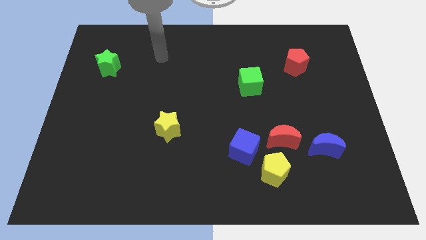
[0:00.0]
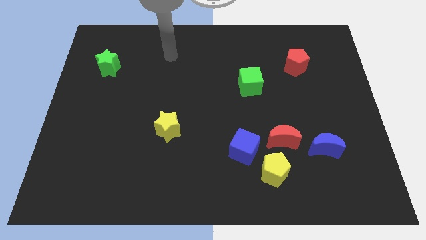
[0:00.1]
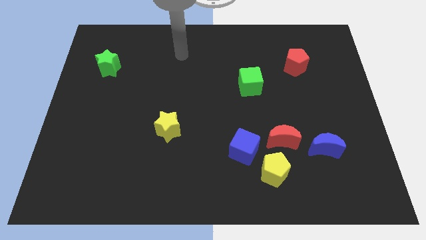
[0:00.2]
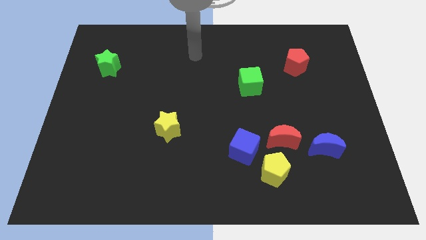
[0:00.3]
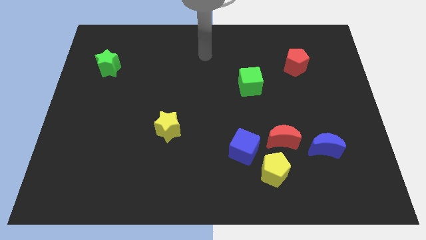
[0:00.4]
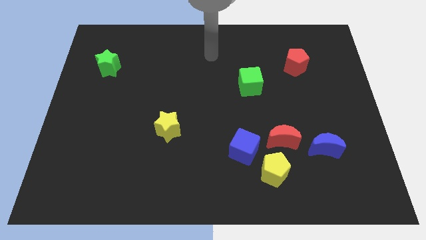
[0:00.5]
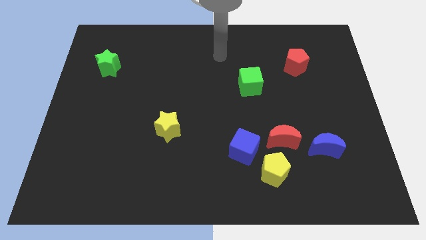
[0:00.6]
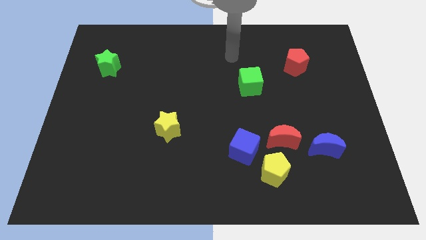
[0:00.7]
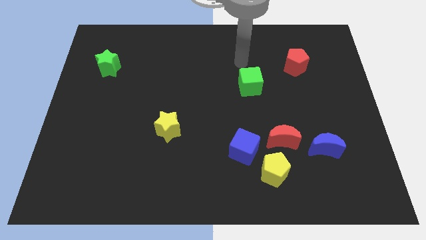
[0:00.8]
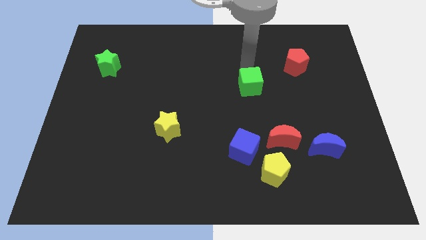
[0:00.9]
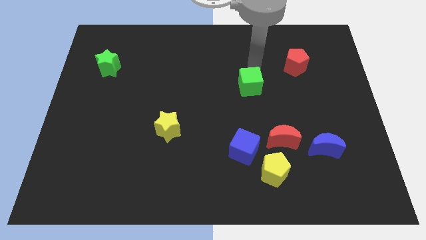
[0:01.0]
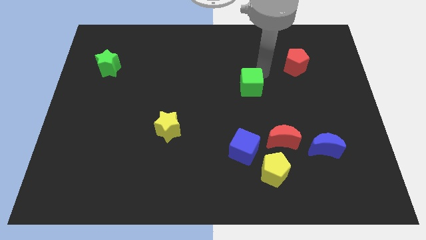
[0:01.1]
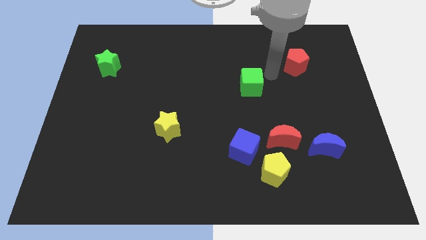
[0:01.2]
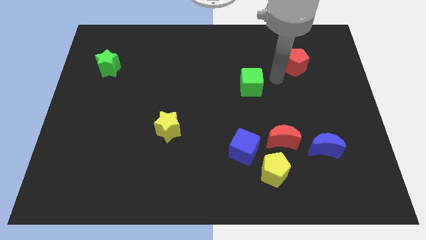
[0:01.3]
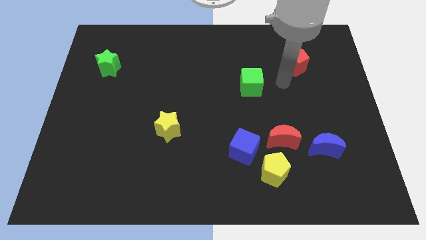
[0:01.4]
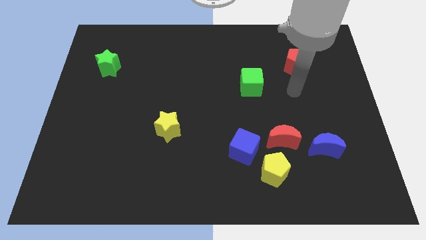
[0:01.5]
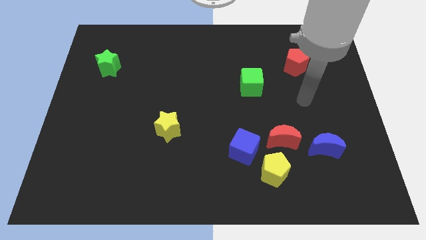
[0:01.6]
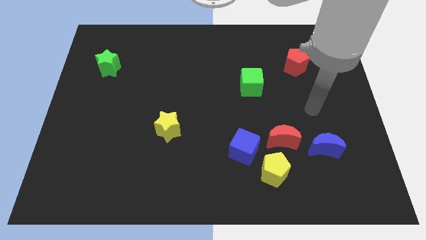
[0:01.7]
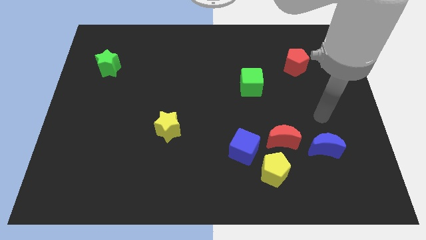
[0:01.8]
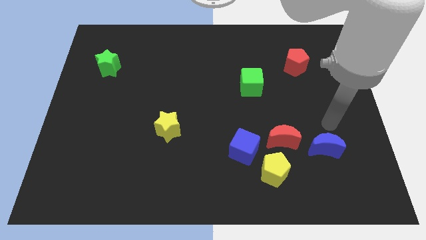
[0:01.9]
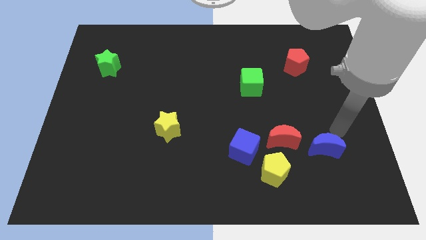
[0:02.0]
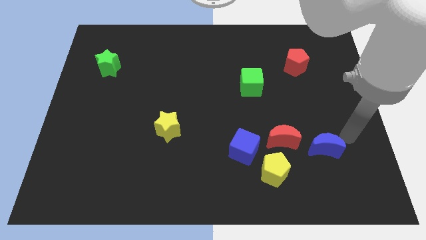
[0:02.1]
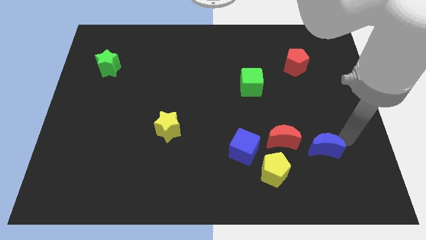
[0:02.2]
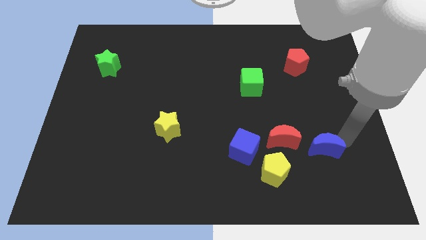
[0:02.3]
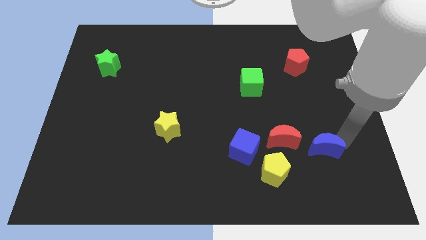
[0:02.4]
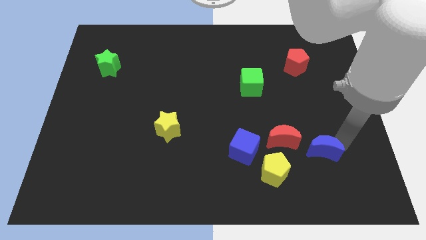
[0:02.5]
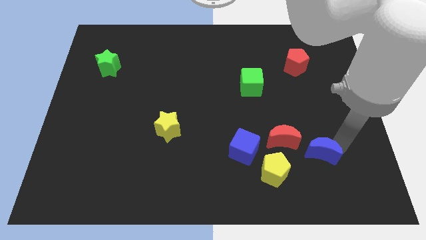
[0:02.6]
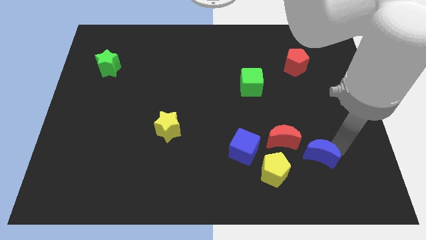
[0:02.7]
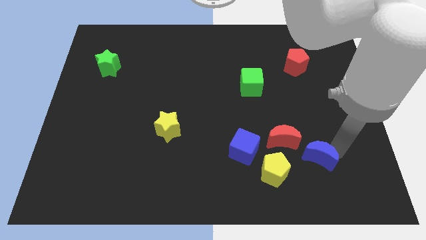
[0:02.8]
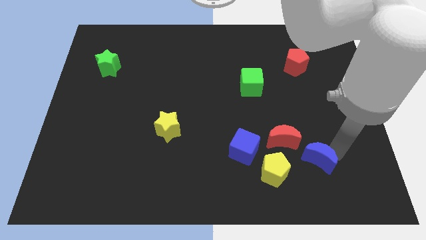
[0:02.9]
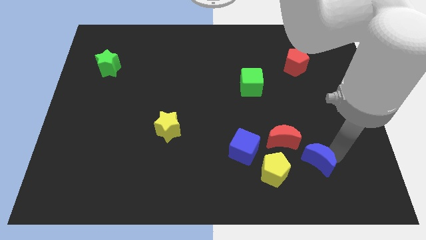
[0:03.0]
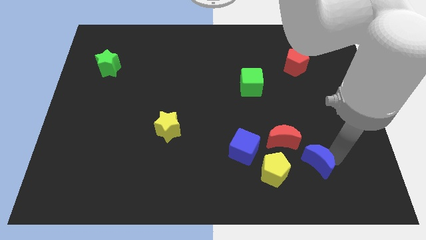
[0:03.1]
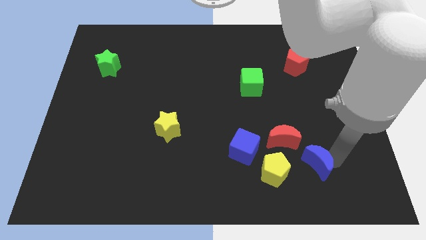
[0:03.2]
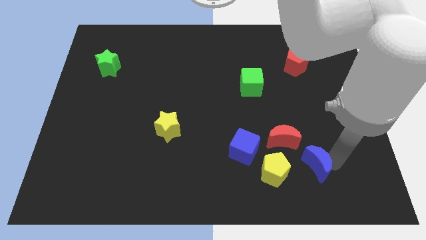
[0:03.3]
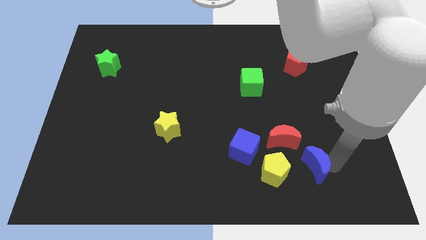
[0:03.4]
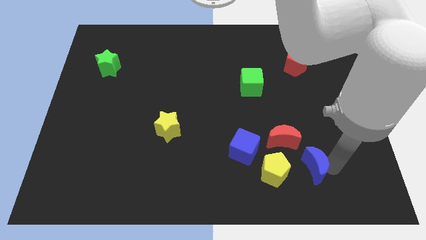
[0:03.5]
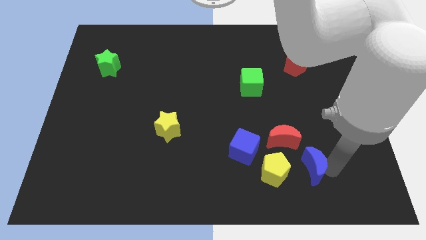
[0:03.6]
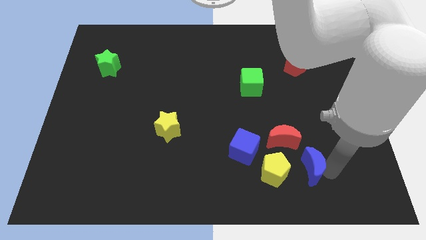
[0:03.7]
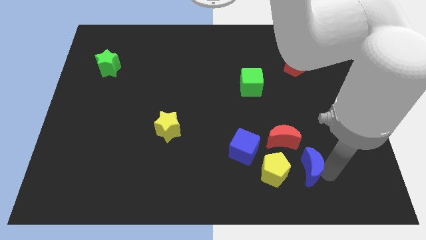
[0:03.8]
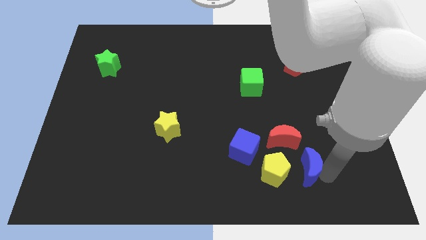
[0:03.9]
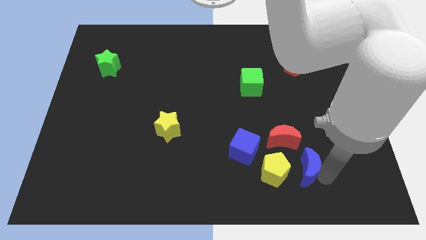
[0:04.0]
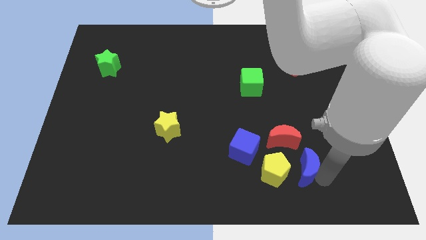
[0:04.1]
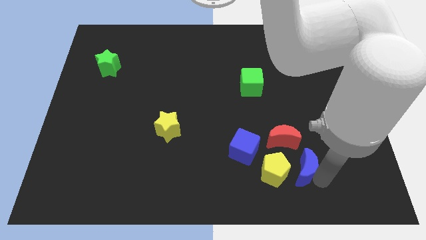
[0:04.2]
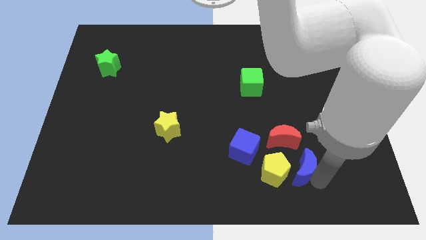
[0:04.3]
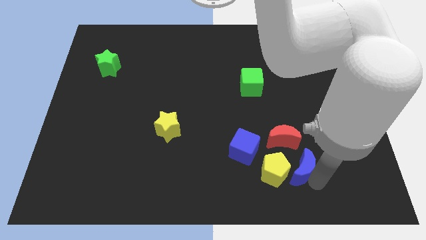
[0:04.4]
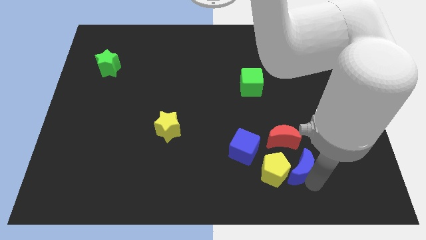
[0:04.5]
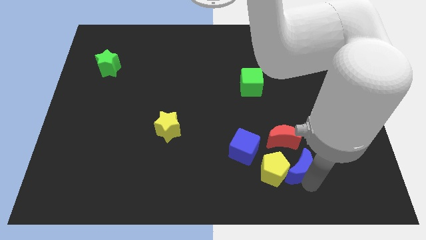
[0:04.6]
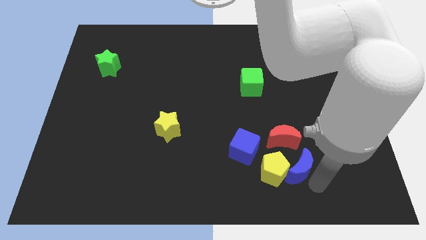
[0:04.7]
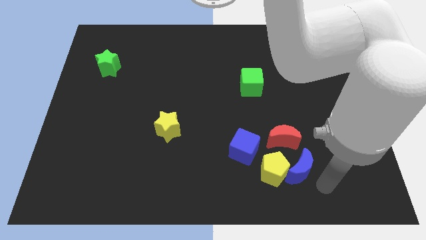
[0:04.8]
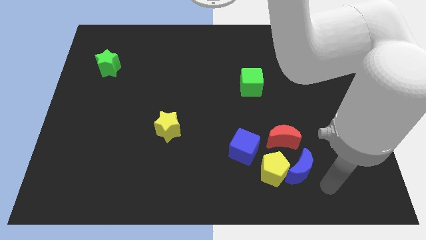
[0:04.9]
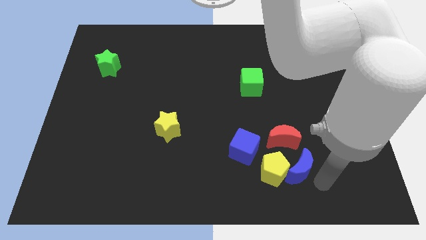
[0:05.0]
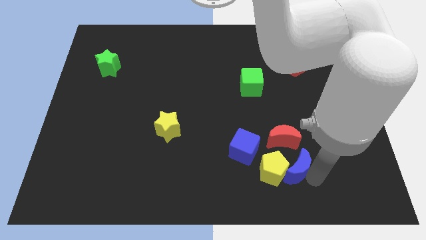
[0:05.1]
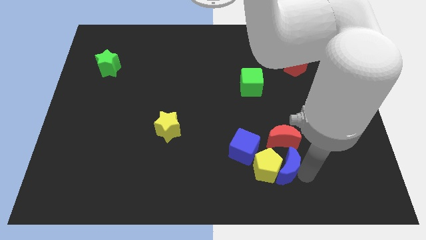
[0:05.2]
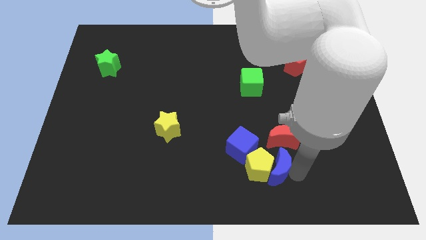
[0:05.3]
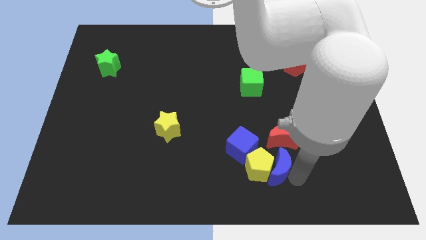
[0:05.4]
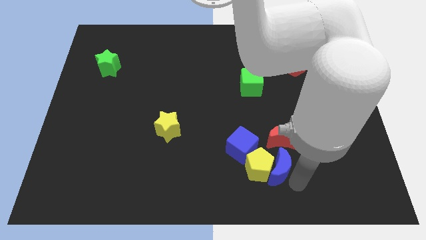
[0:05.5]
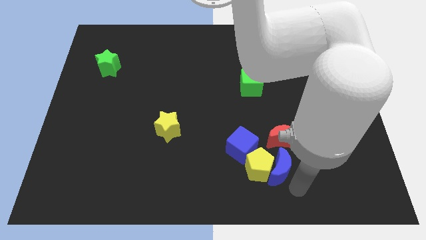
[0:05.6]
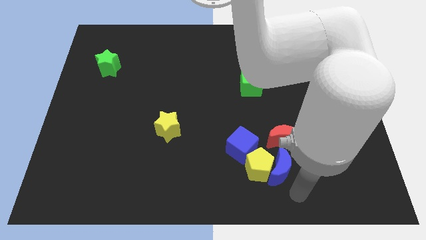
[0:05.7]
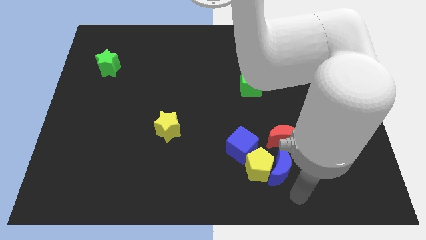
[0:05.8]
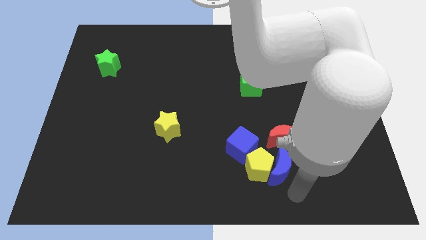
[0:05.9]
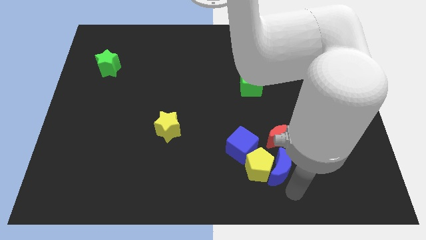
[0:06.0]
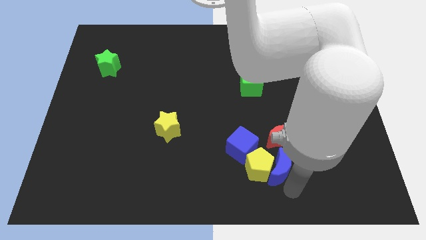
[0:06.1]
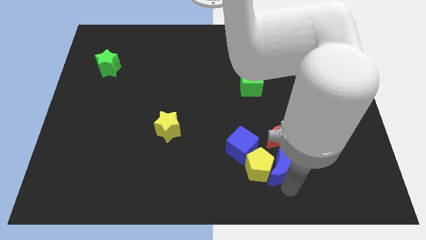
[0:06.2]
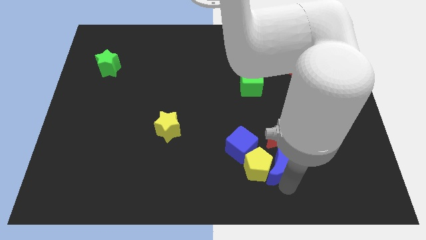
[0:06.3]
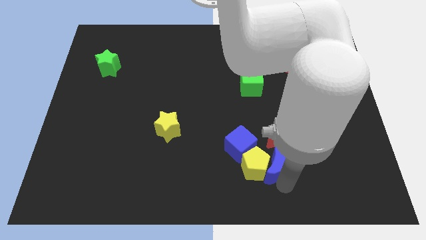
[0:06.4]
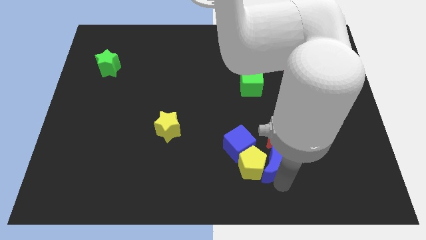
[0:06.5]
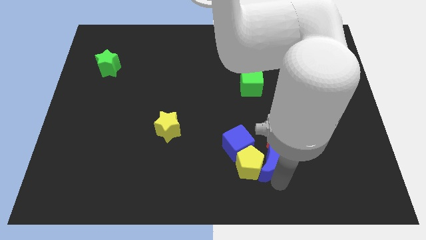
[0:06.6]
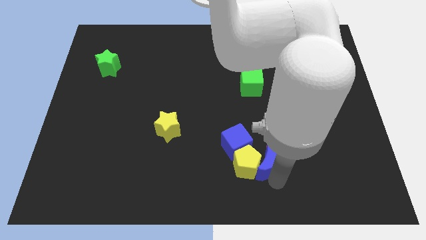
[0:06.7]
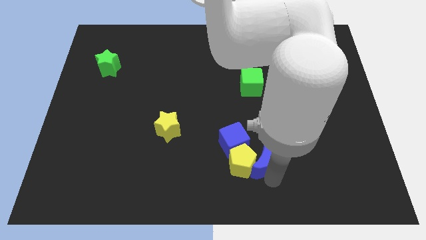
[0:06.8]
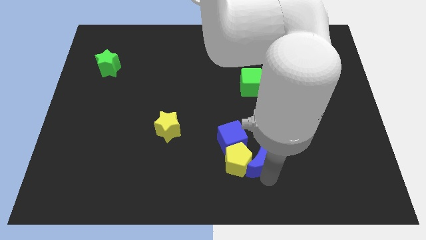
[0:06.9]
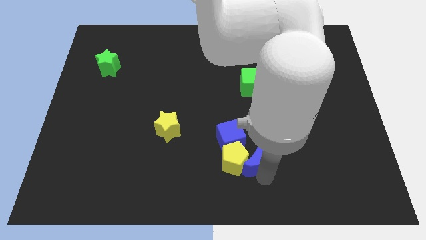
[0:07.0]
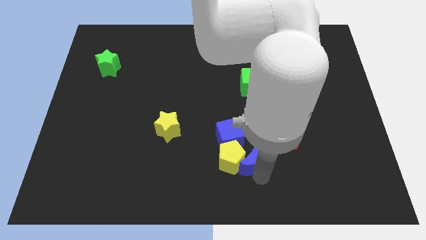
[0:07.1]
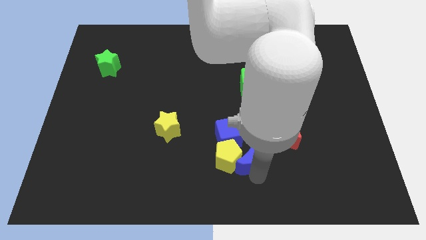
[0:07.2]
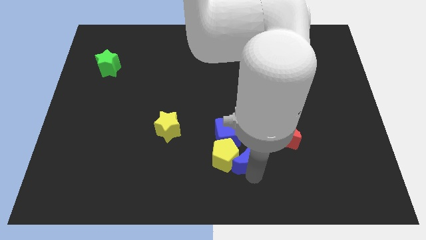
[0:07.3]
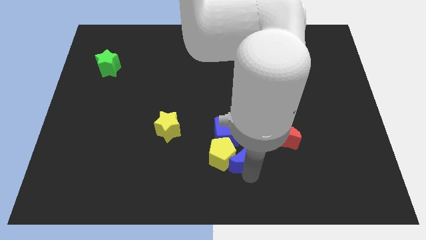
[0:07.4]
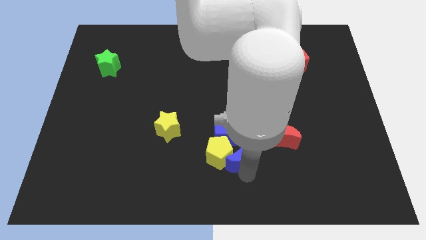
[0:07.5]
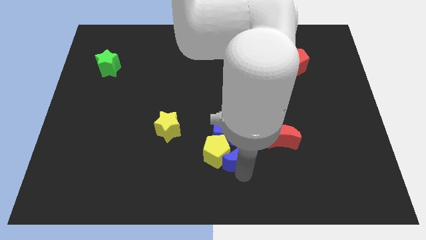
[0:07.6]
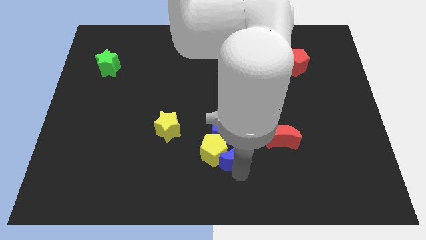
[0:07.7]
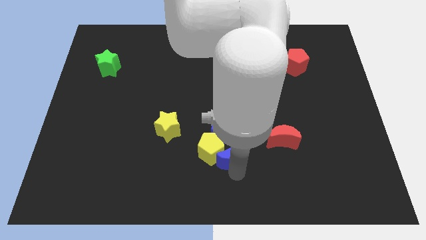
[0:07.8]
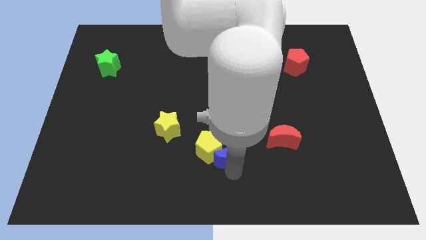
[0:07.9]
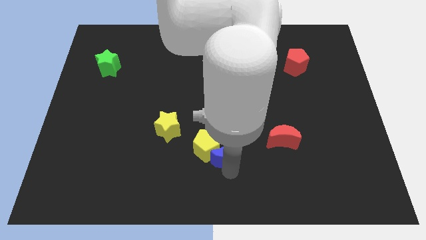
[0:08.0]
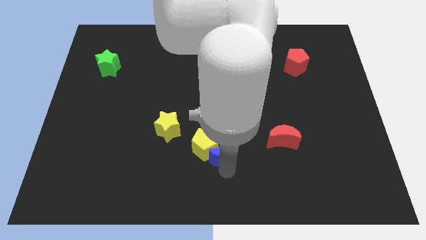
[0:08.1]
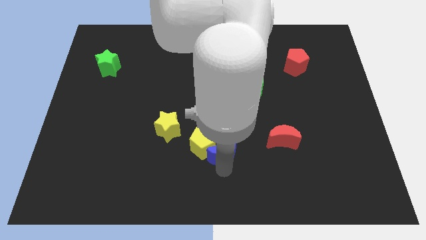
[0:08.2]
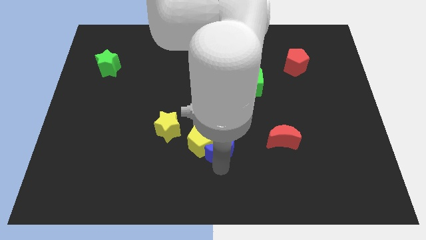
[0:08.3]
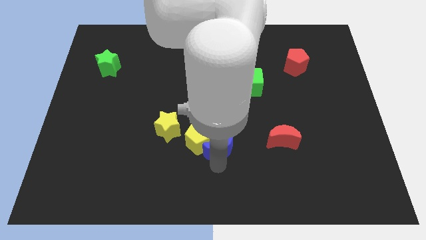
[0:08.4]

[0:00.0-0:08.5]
slide the blue moon towards the blue cube
